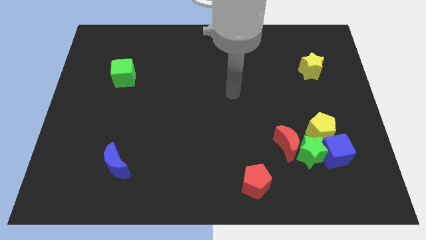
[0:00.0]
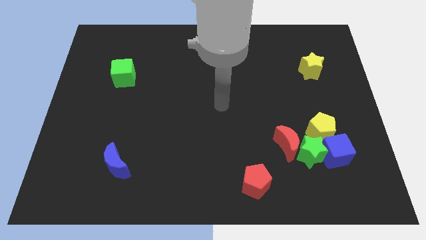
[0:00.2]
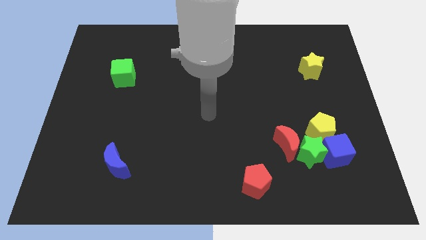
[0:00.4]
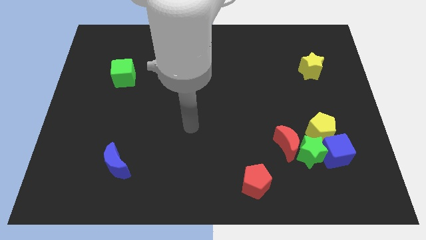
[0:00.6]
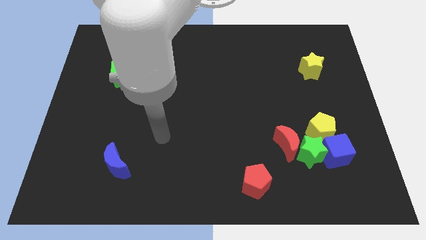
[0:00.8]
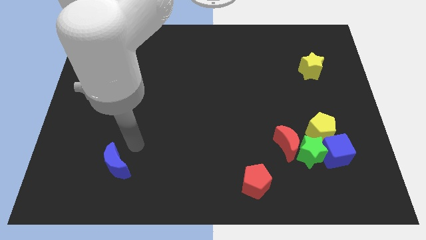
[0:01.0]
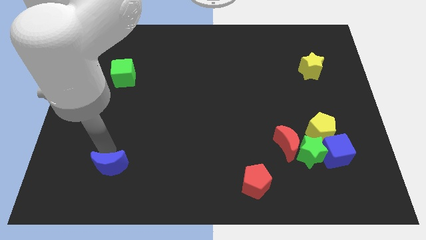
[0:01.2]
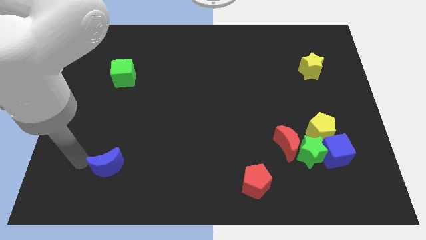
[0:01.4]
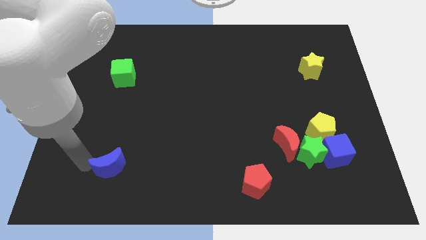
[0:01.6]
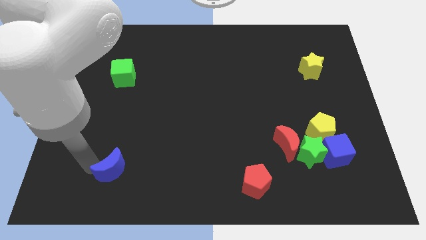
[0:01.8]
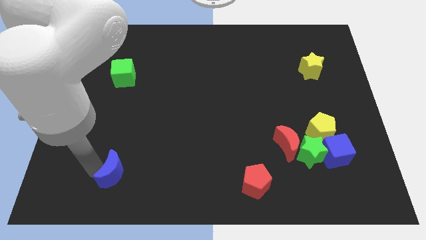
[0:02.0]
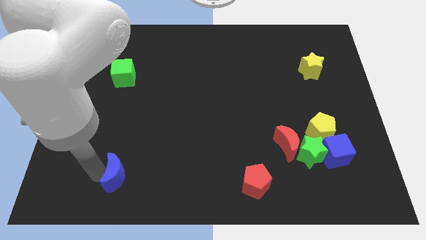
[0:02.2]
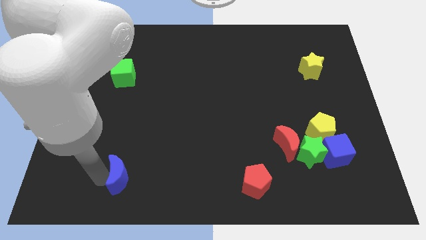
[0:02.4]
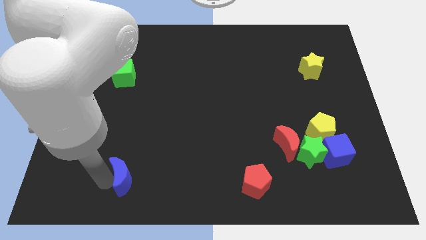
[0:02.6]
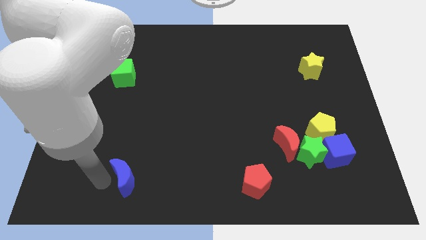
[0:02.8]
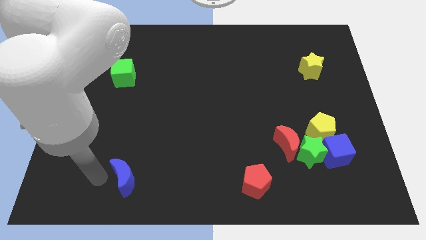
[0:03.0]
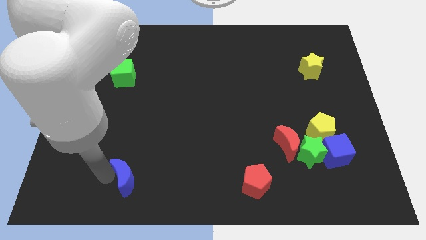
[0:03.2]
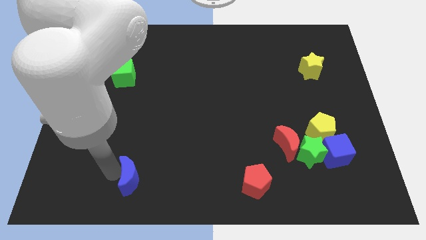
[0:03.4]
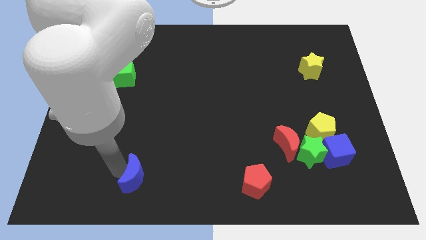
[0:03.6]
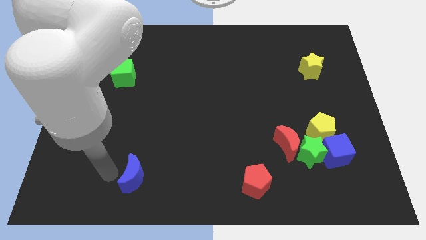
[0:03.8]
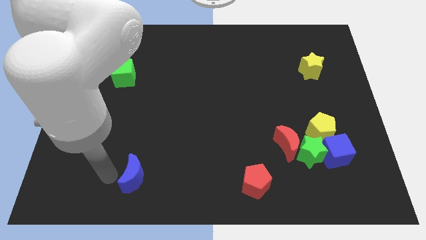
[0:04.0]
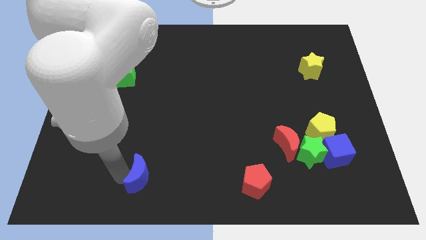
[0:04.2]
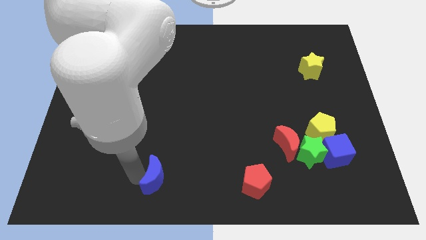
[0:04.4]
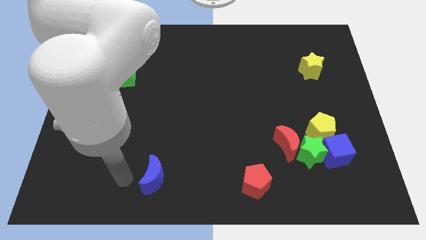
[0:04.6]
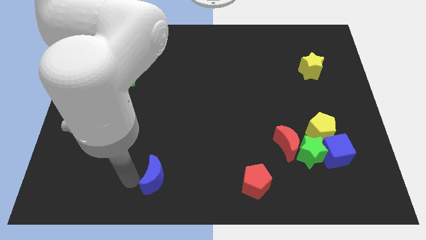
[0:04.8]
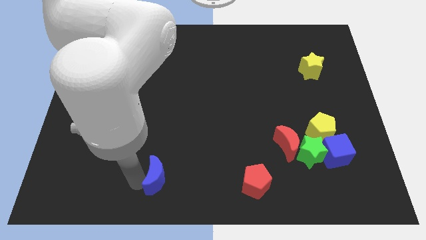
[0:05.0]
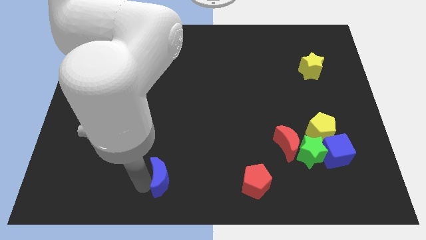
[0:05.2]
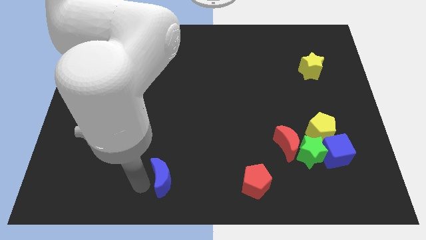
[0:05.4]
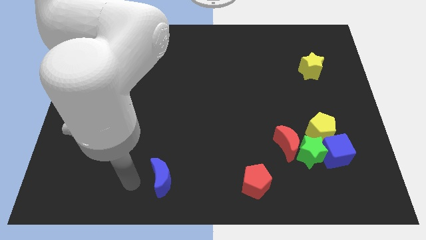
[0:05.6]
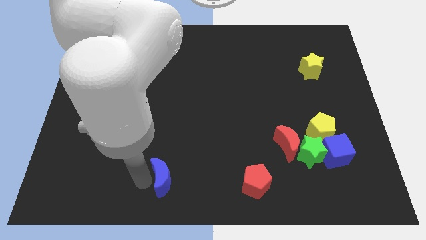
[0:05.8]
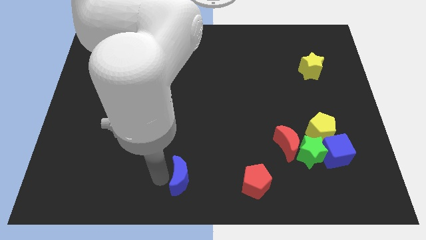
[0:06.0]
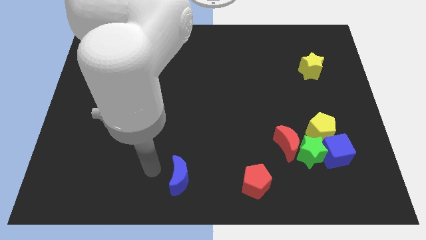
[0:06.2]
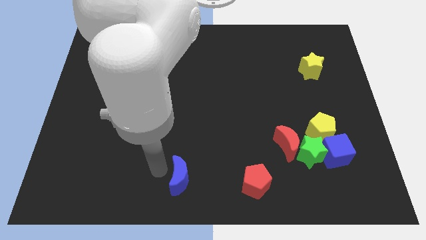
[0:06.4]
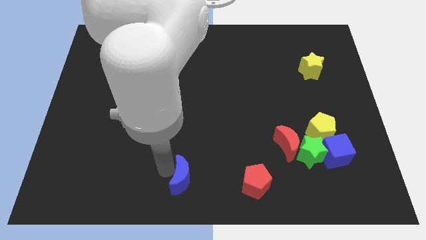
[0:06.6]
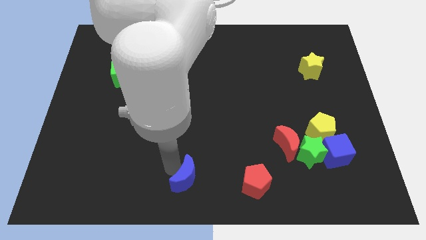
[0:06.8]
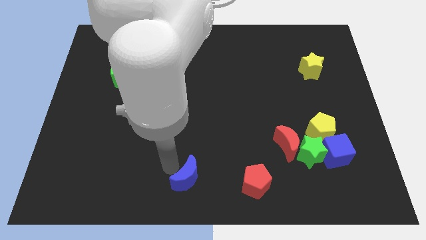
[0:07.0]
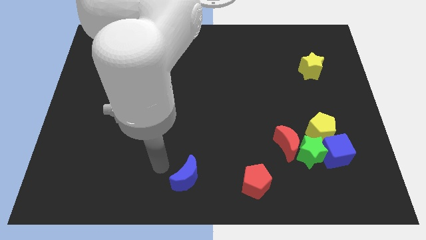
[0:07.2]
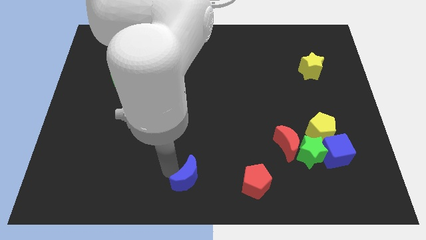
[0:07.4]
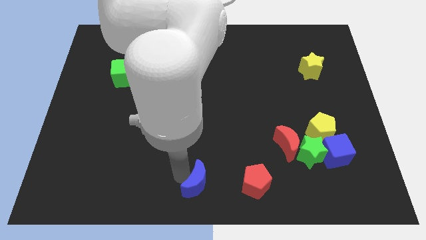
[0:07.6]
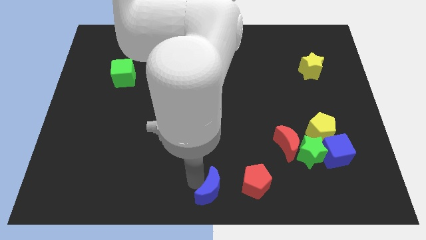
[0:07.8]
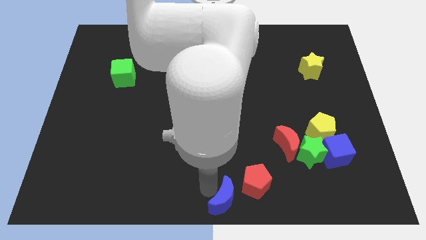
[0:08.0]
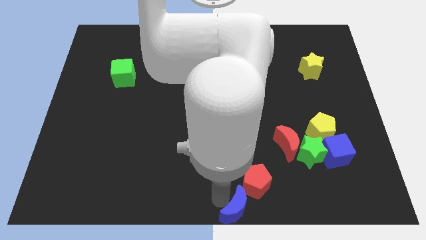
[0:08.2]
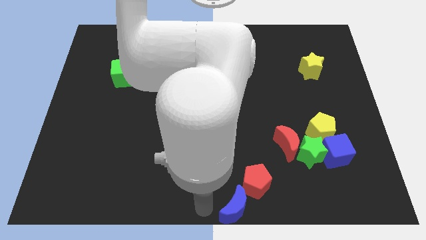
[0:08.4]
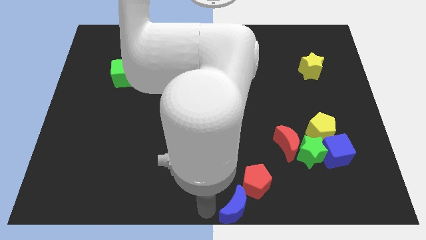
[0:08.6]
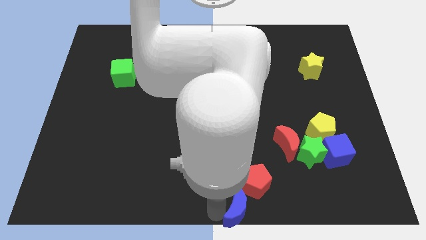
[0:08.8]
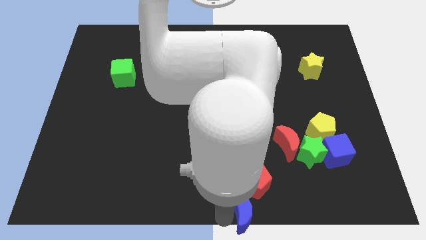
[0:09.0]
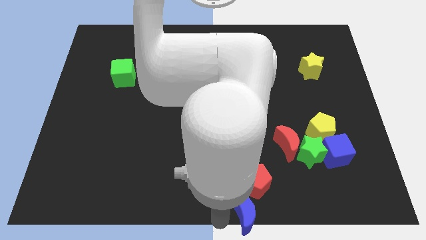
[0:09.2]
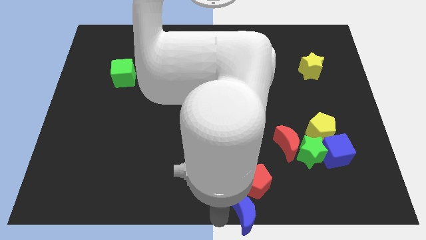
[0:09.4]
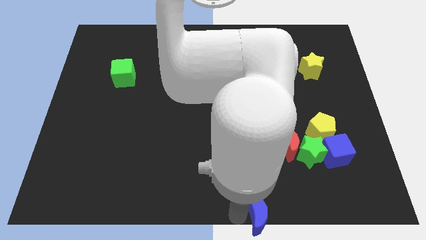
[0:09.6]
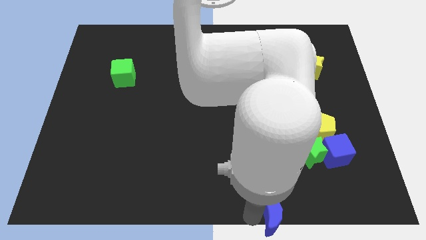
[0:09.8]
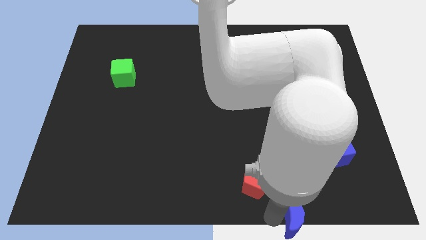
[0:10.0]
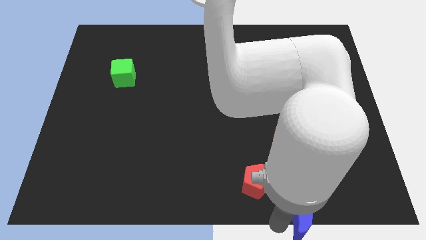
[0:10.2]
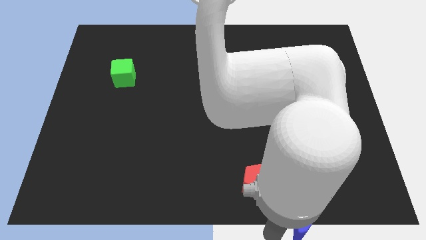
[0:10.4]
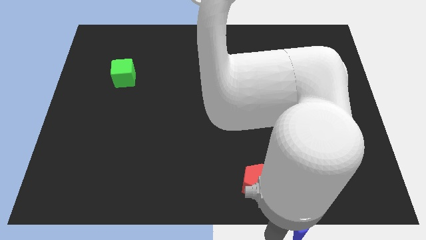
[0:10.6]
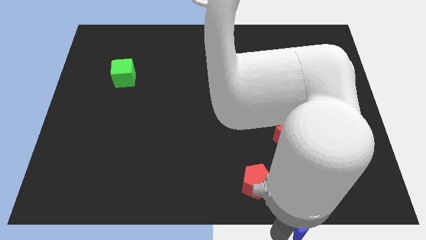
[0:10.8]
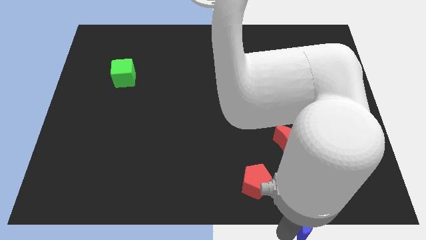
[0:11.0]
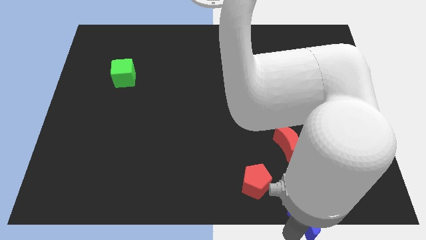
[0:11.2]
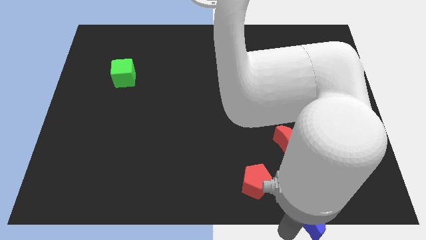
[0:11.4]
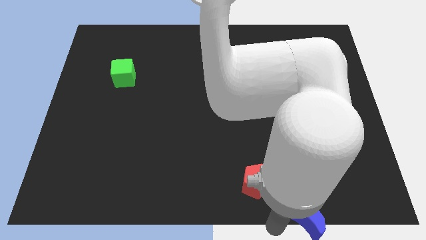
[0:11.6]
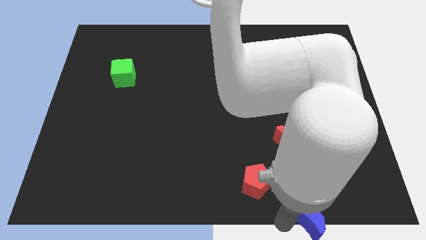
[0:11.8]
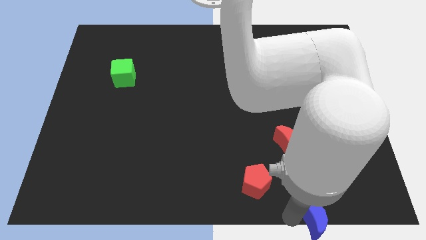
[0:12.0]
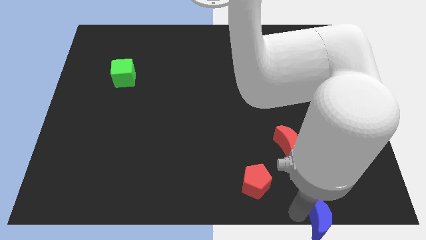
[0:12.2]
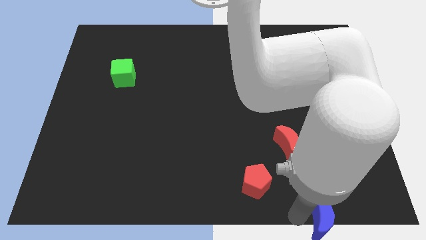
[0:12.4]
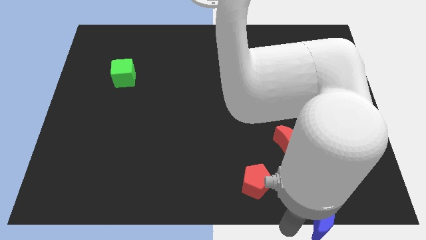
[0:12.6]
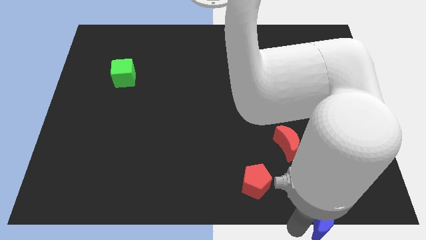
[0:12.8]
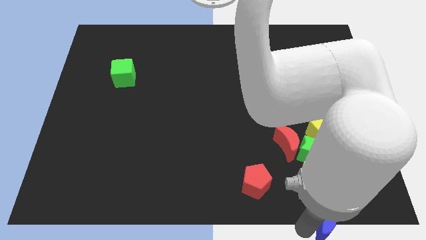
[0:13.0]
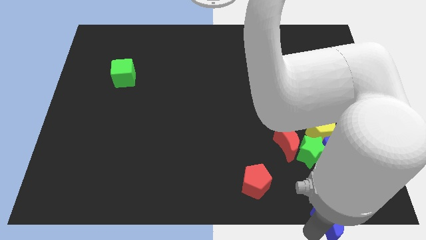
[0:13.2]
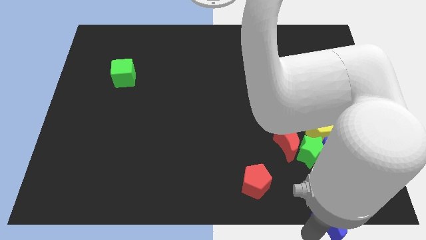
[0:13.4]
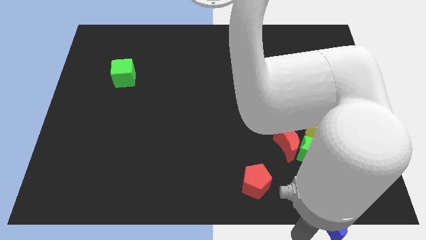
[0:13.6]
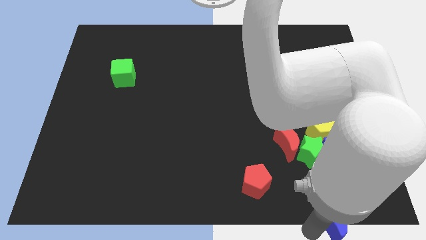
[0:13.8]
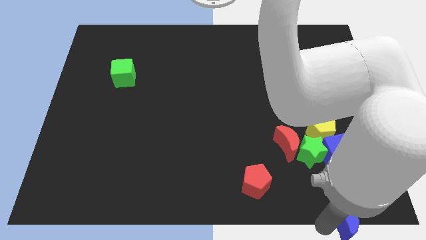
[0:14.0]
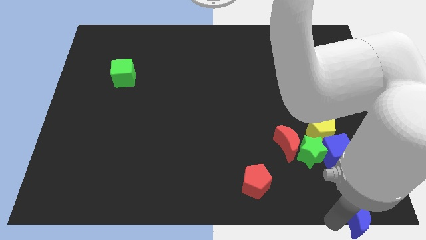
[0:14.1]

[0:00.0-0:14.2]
put the blue moon to the bottom right
